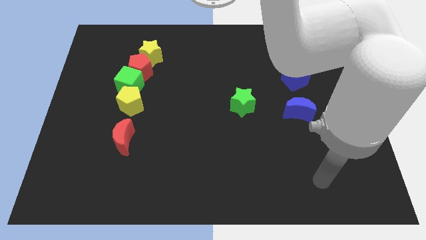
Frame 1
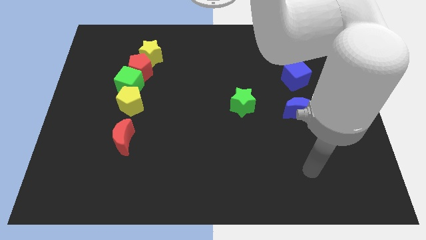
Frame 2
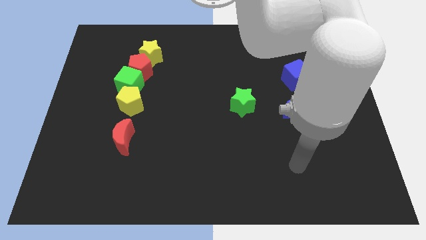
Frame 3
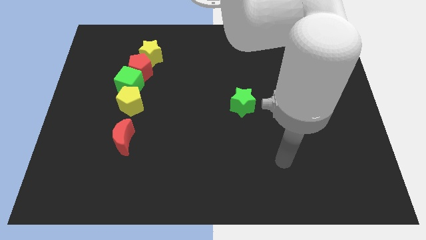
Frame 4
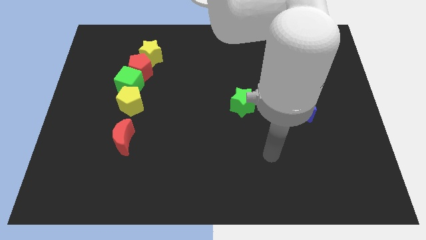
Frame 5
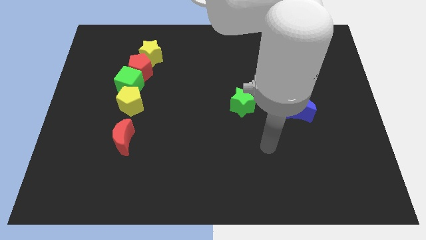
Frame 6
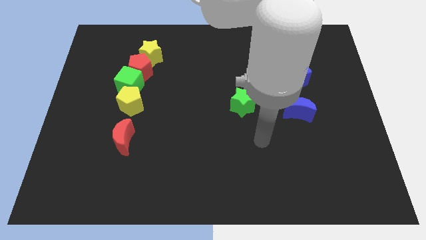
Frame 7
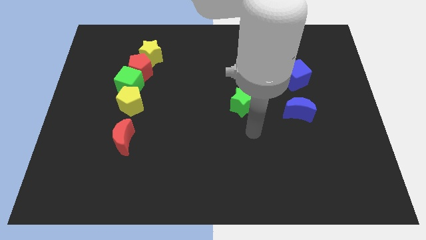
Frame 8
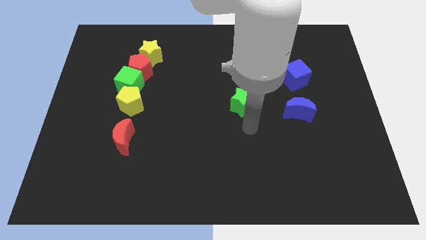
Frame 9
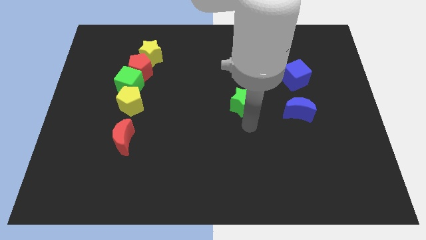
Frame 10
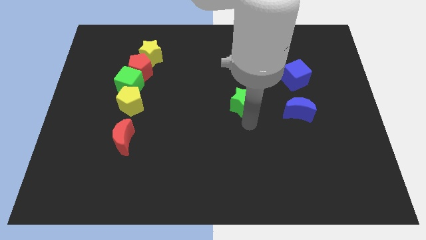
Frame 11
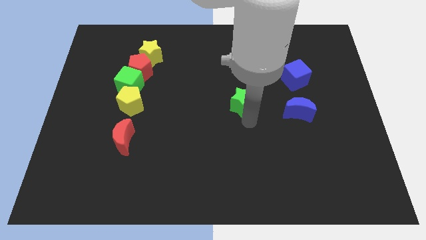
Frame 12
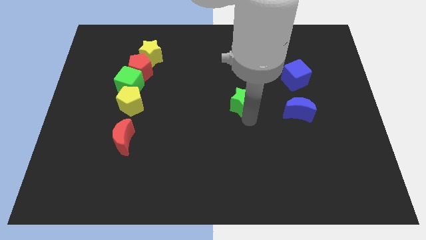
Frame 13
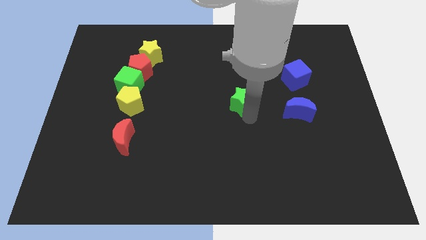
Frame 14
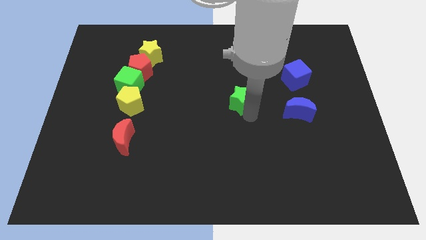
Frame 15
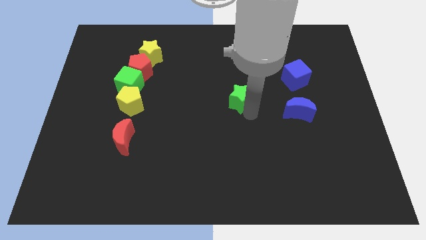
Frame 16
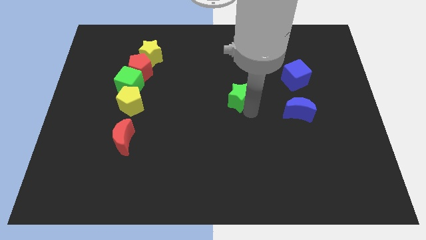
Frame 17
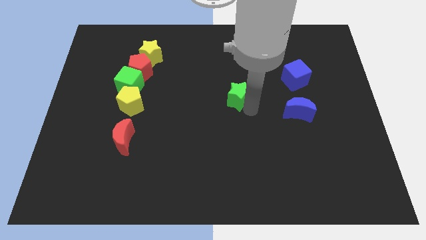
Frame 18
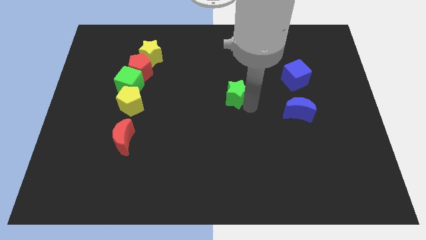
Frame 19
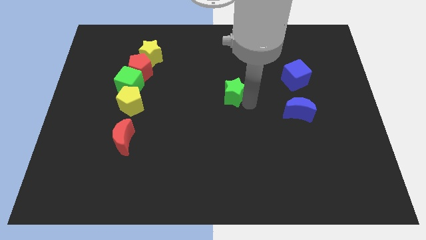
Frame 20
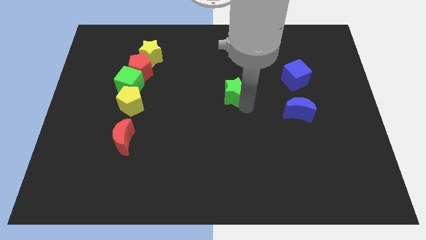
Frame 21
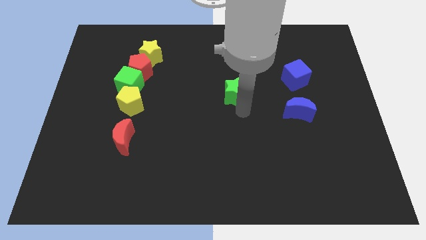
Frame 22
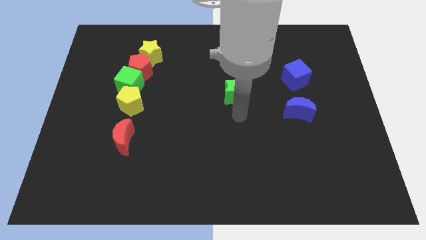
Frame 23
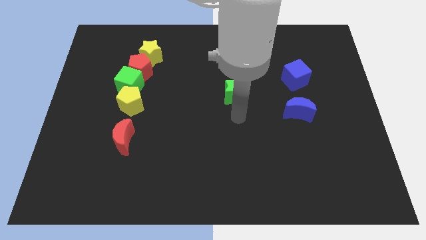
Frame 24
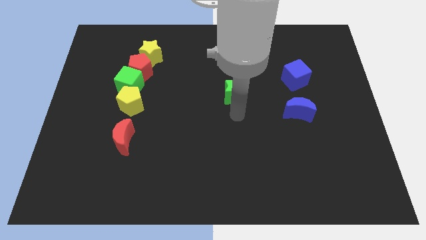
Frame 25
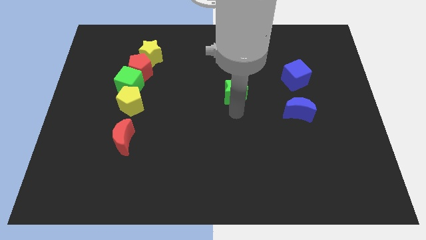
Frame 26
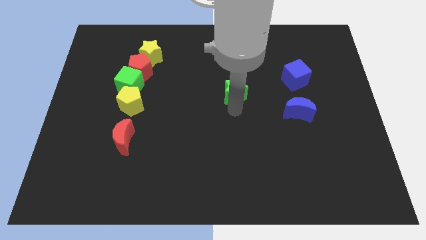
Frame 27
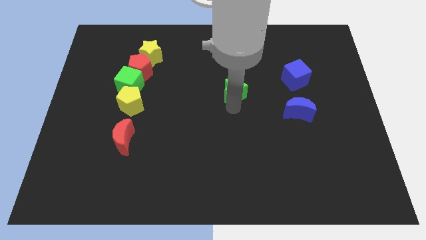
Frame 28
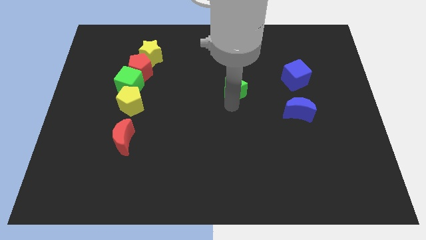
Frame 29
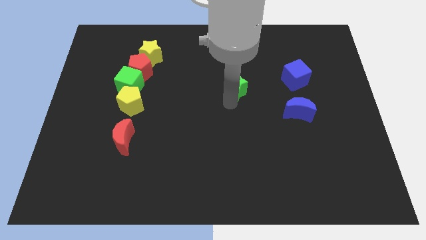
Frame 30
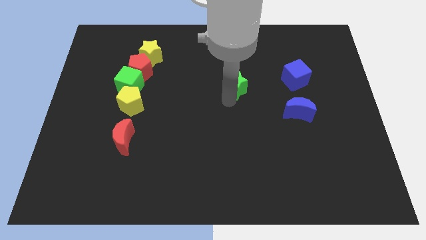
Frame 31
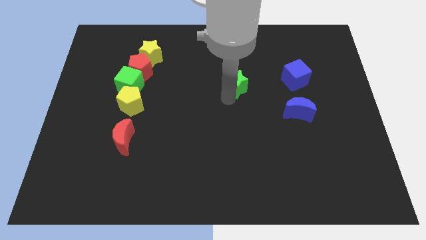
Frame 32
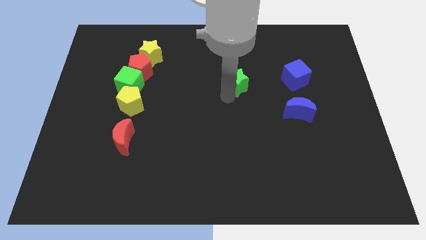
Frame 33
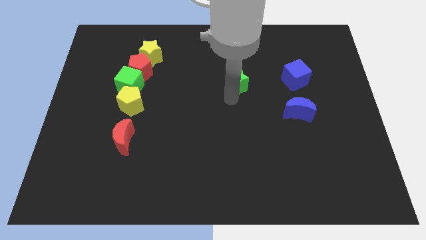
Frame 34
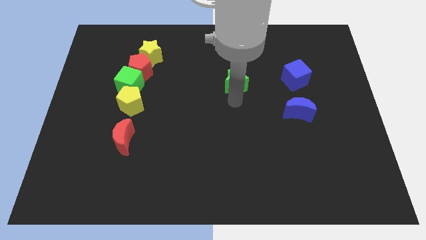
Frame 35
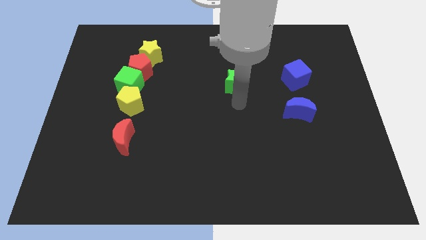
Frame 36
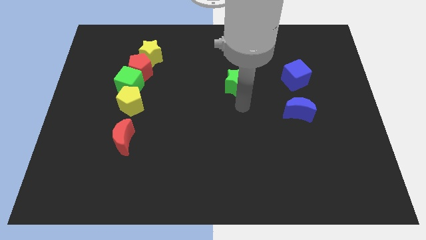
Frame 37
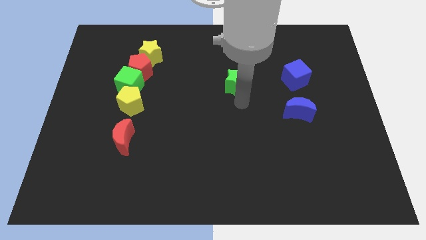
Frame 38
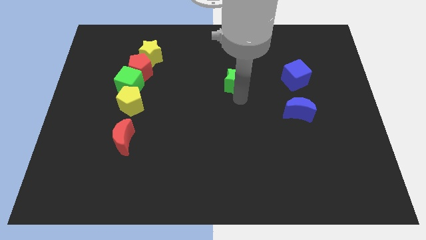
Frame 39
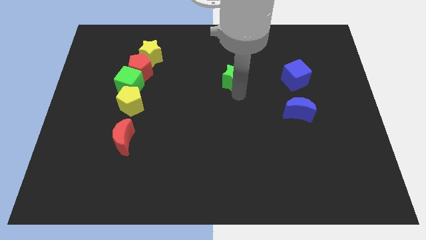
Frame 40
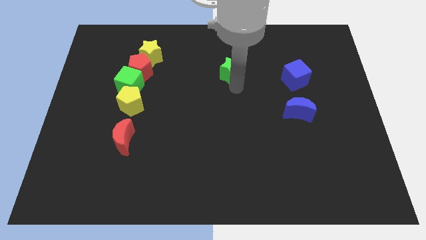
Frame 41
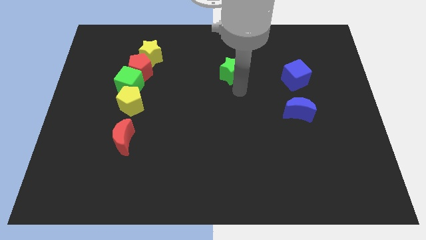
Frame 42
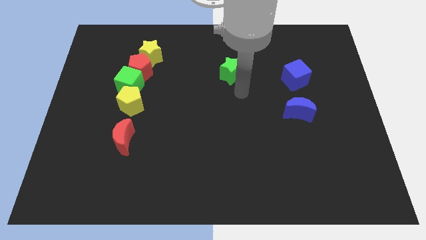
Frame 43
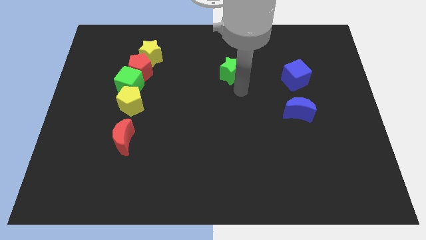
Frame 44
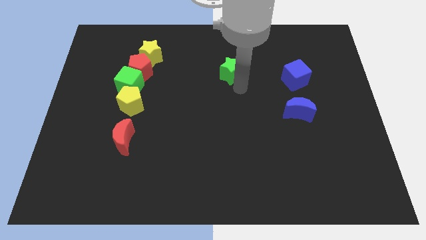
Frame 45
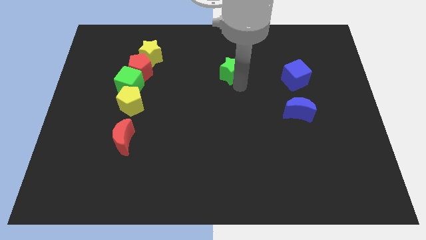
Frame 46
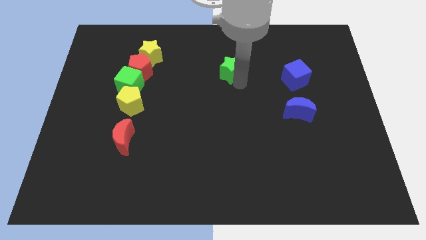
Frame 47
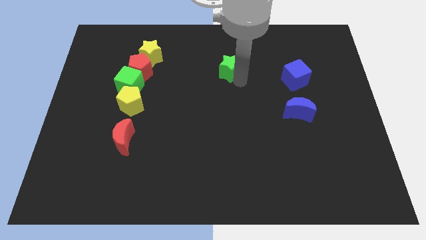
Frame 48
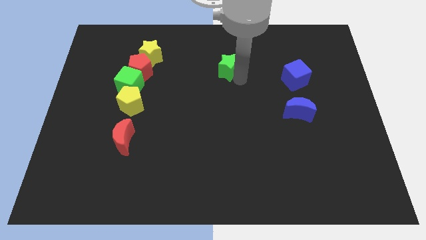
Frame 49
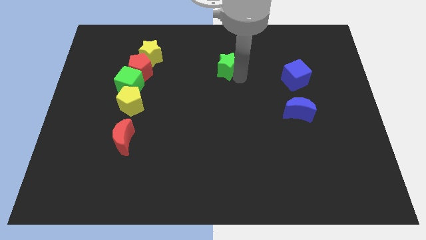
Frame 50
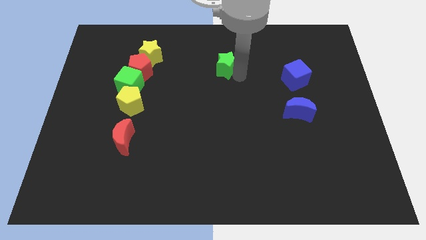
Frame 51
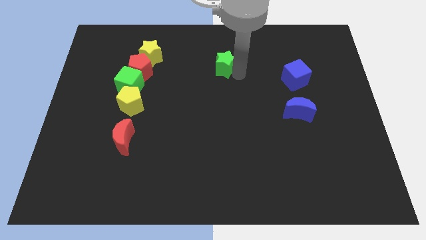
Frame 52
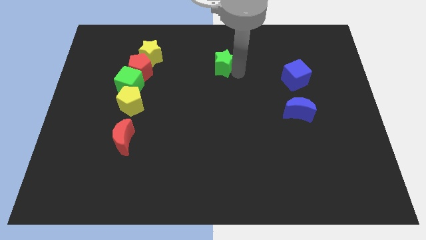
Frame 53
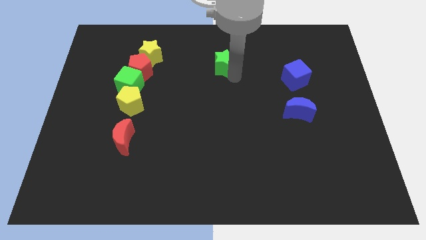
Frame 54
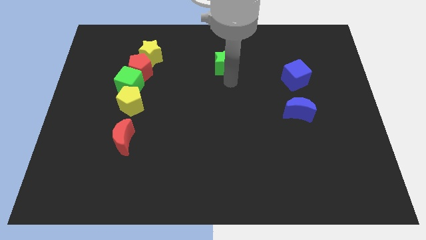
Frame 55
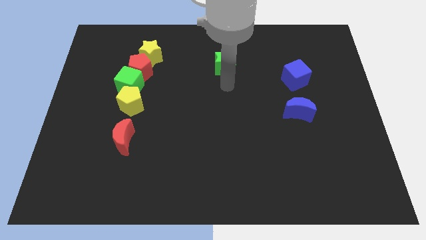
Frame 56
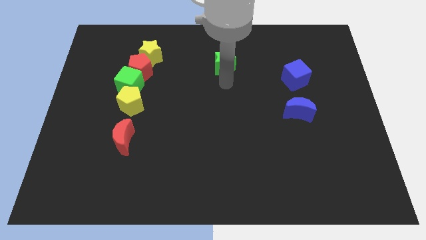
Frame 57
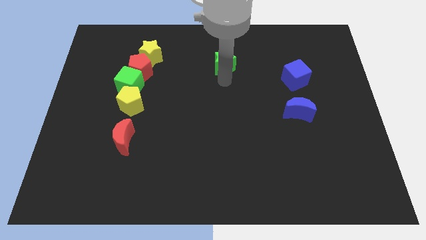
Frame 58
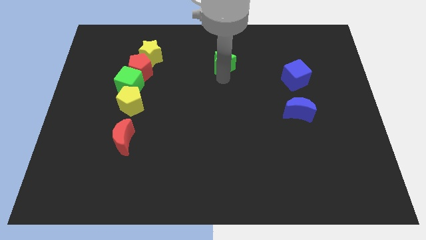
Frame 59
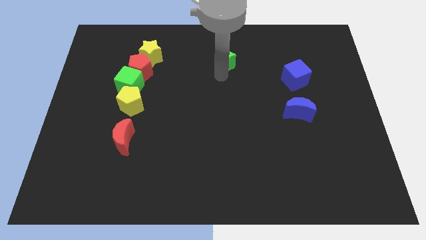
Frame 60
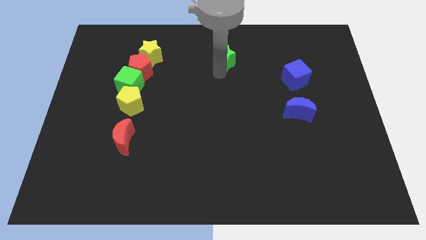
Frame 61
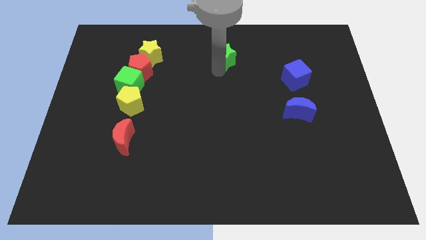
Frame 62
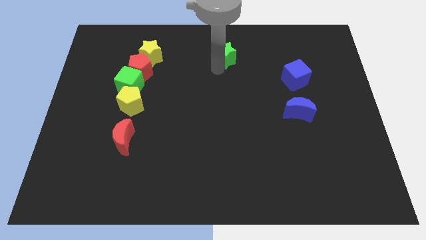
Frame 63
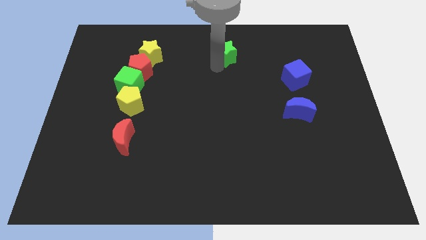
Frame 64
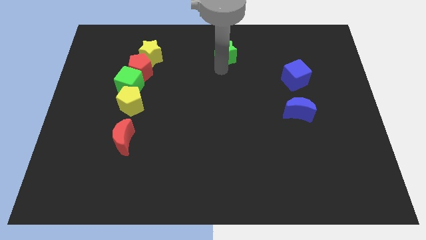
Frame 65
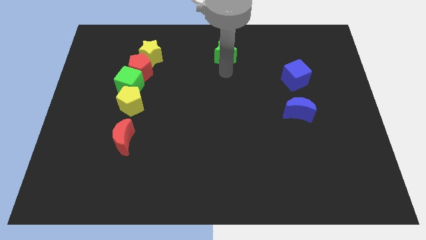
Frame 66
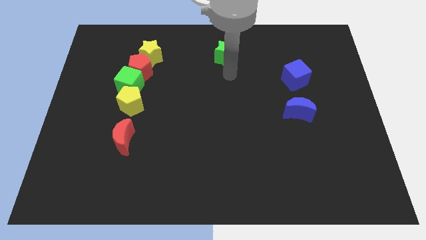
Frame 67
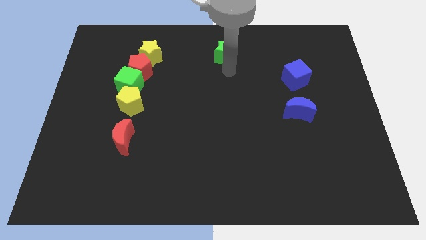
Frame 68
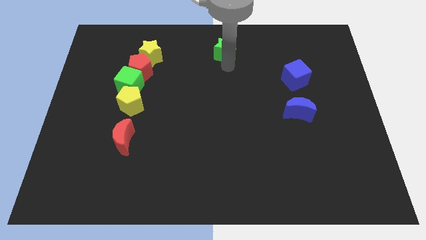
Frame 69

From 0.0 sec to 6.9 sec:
slide the green star to the towards your base
